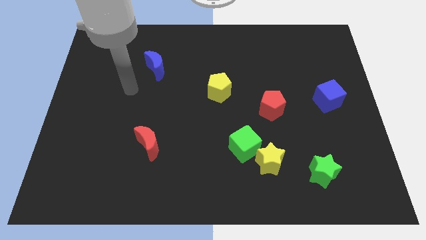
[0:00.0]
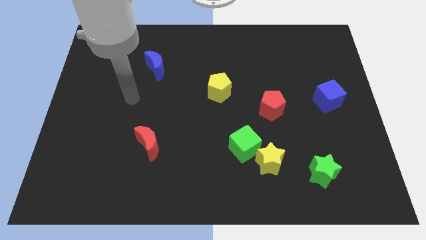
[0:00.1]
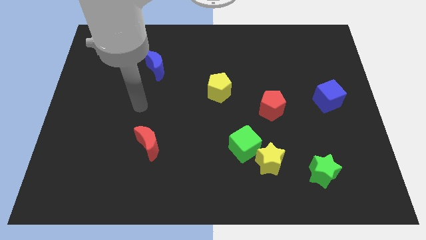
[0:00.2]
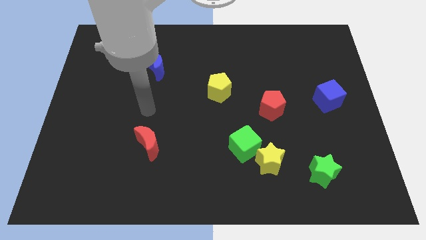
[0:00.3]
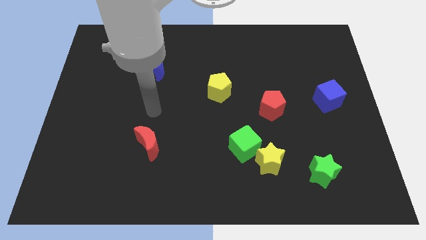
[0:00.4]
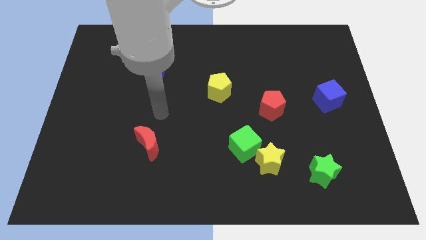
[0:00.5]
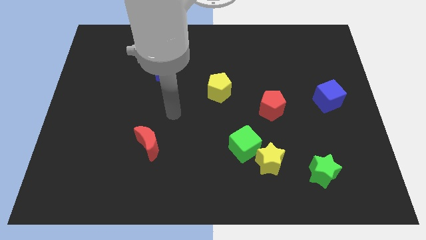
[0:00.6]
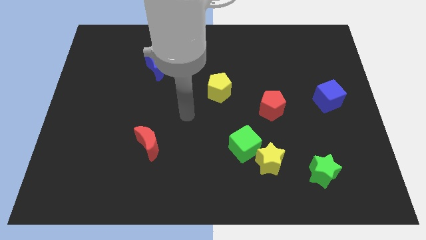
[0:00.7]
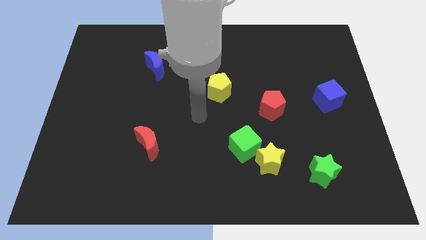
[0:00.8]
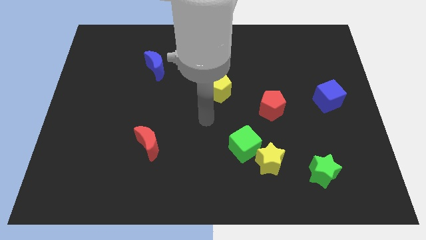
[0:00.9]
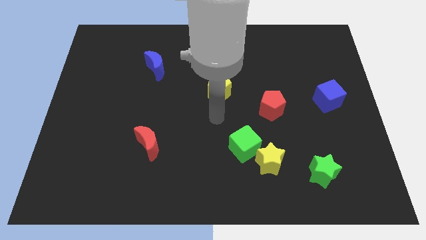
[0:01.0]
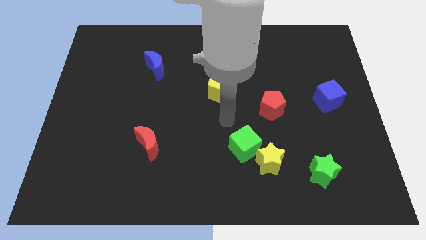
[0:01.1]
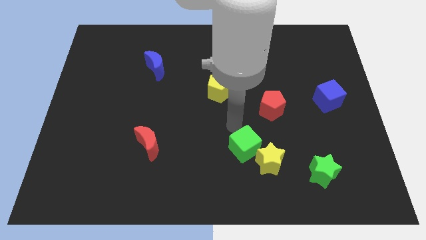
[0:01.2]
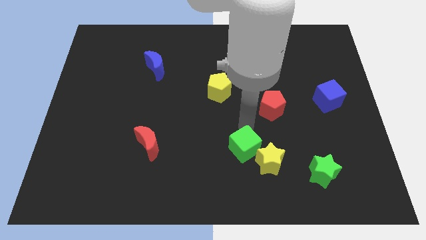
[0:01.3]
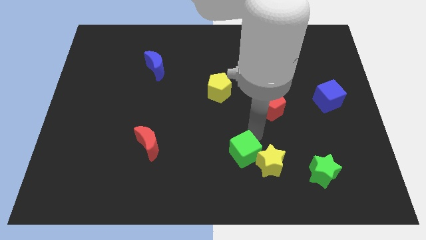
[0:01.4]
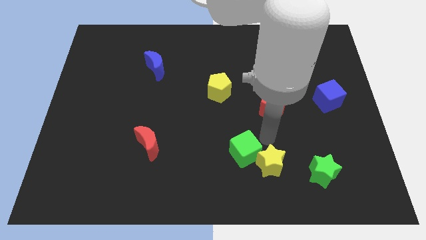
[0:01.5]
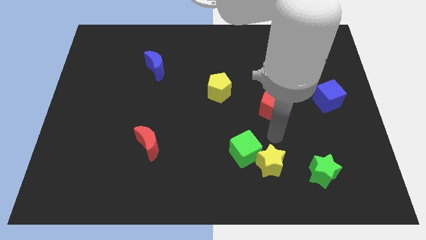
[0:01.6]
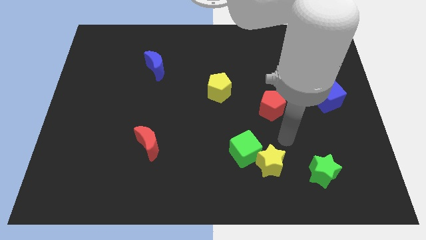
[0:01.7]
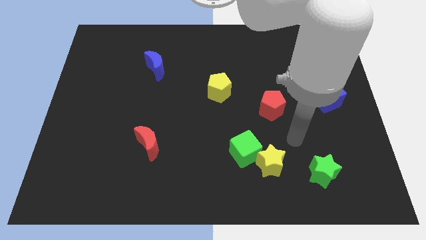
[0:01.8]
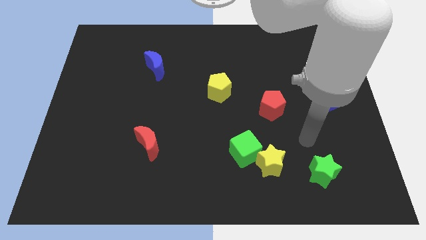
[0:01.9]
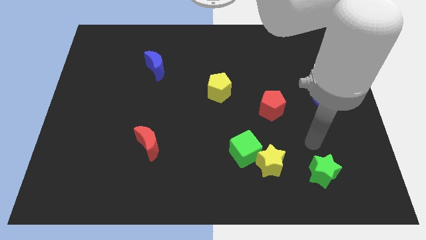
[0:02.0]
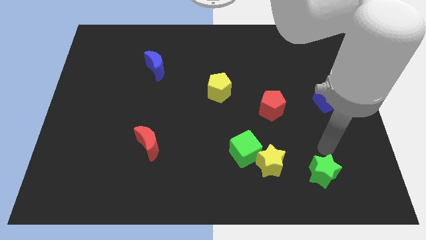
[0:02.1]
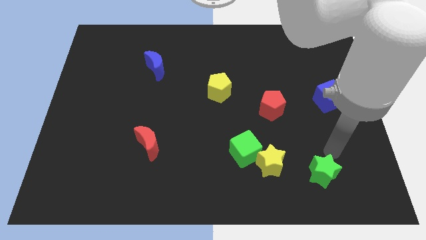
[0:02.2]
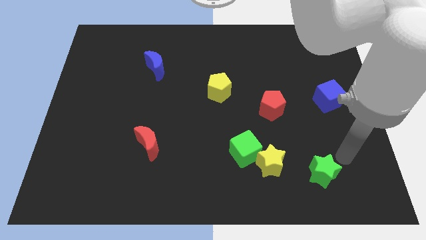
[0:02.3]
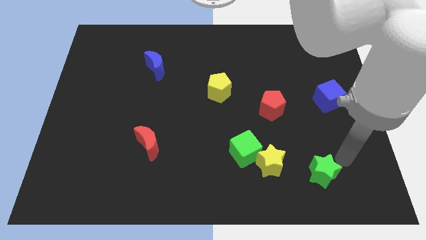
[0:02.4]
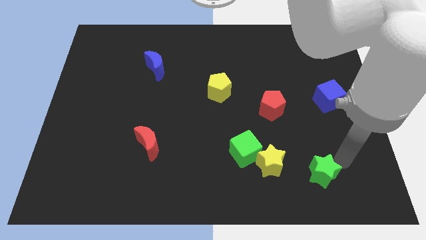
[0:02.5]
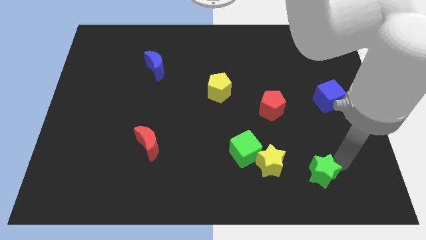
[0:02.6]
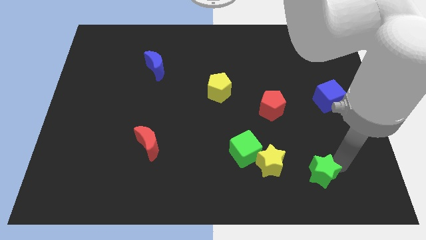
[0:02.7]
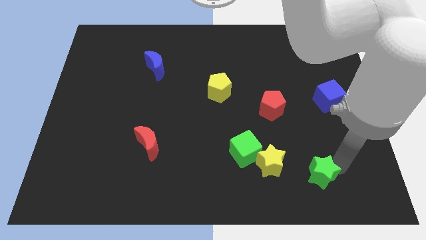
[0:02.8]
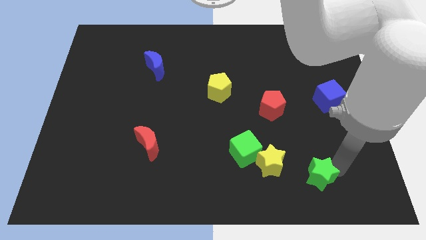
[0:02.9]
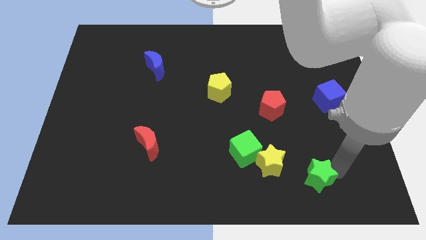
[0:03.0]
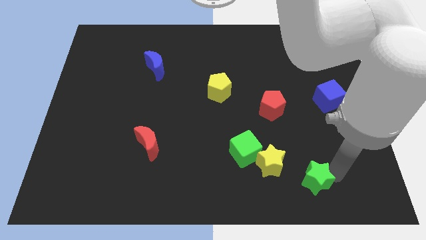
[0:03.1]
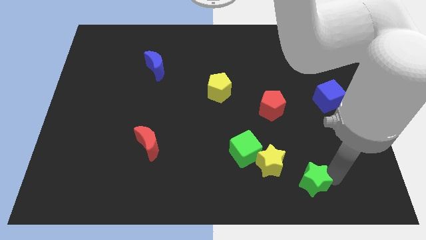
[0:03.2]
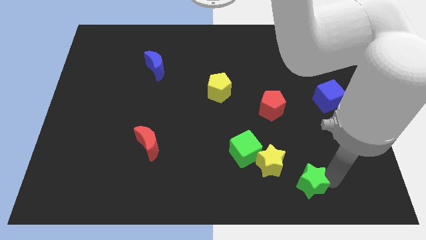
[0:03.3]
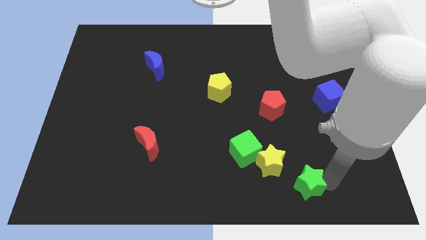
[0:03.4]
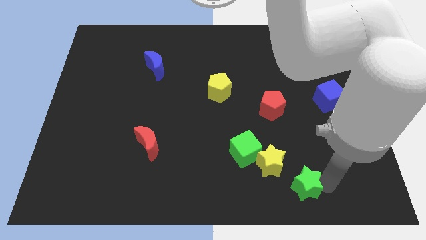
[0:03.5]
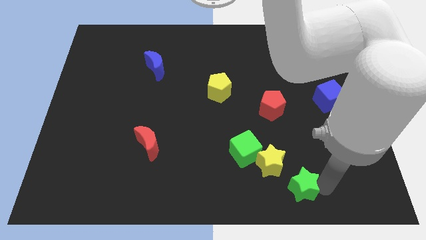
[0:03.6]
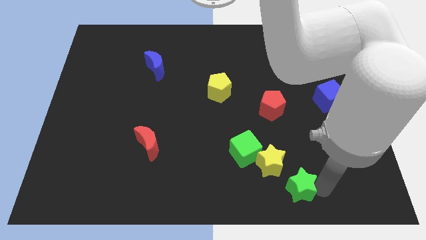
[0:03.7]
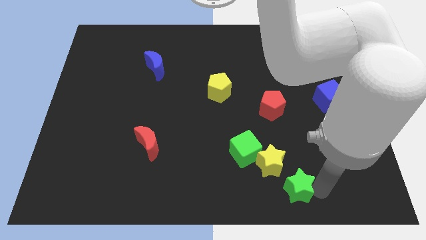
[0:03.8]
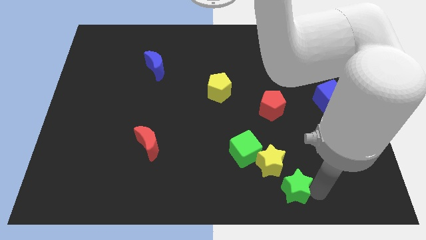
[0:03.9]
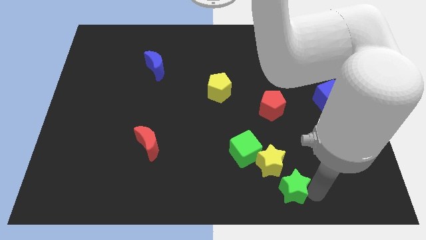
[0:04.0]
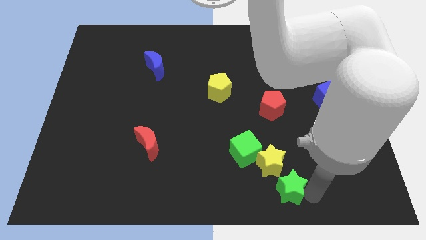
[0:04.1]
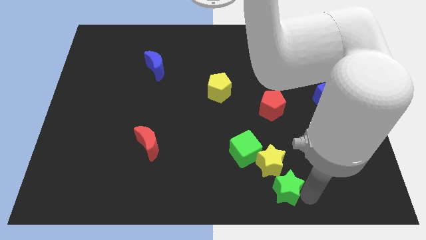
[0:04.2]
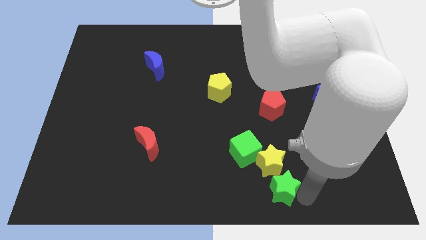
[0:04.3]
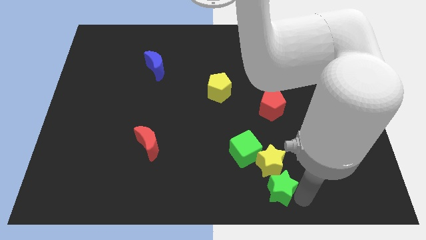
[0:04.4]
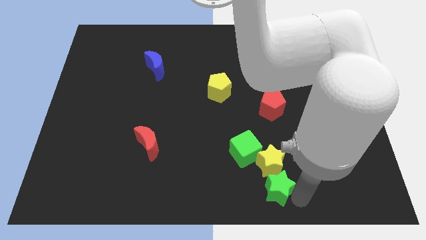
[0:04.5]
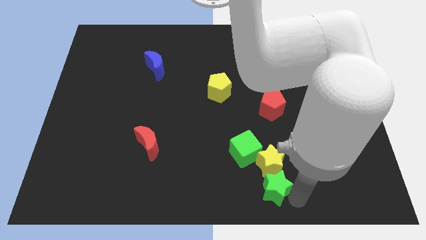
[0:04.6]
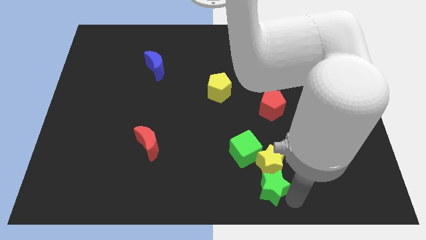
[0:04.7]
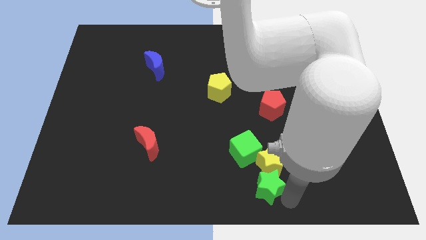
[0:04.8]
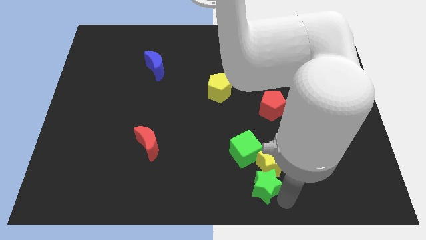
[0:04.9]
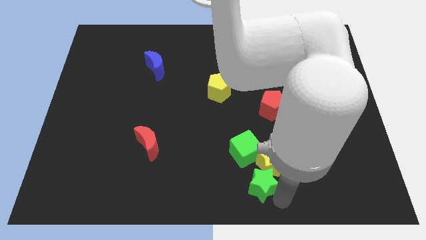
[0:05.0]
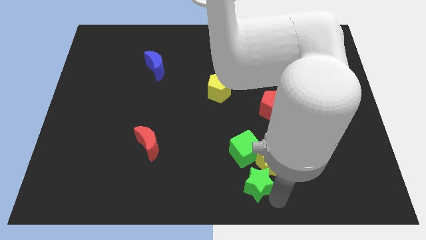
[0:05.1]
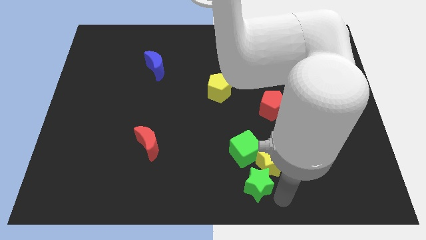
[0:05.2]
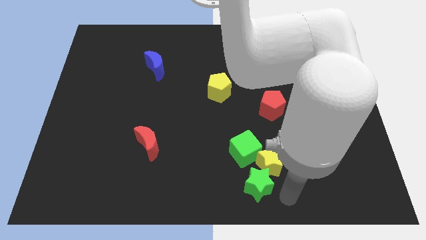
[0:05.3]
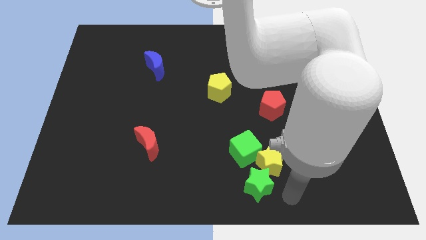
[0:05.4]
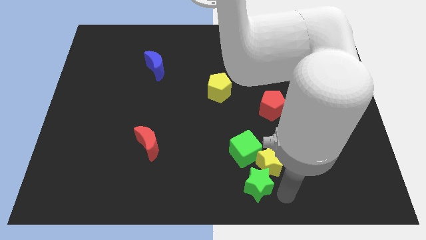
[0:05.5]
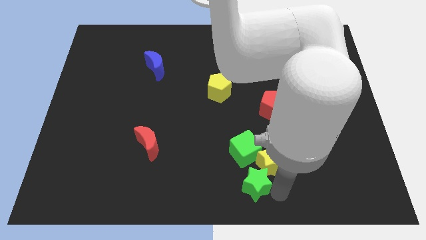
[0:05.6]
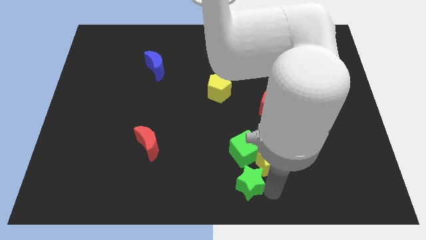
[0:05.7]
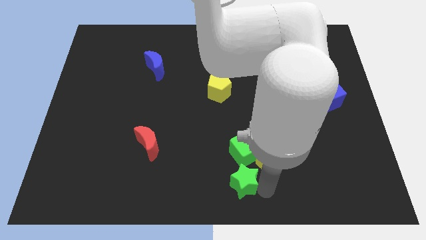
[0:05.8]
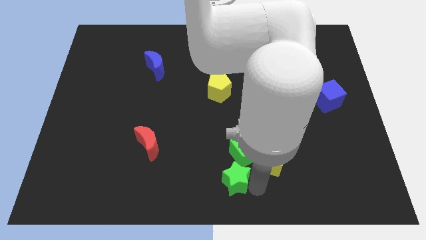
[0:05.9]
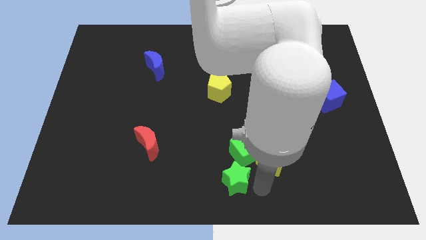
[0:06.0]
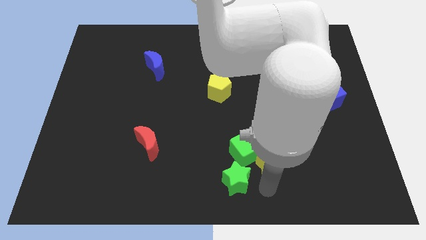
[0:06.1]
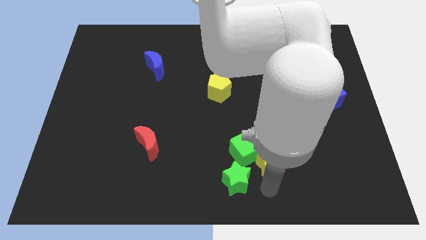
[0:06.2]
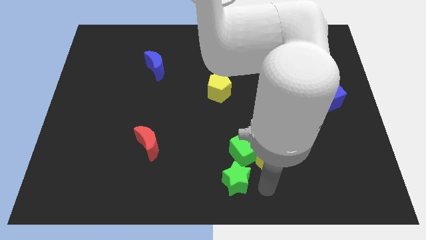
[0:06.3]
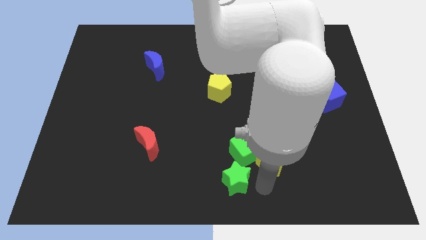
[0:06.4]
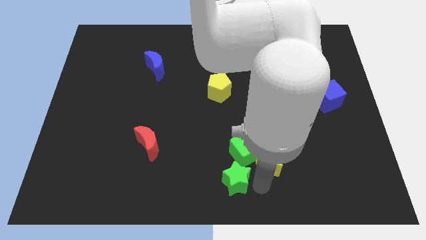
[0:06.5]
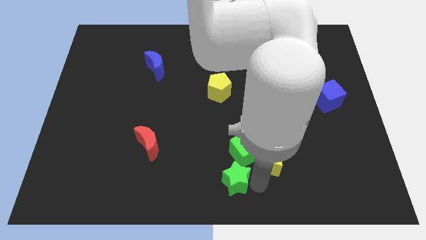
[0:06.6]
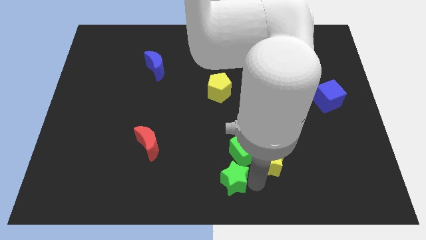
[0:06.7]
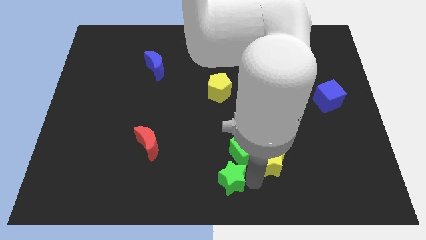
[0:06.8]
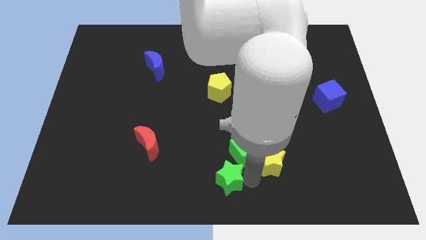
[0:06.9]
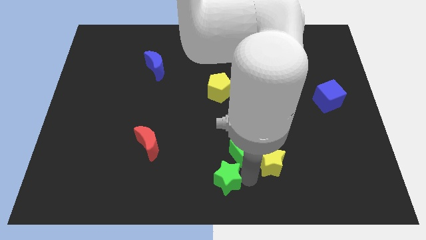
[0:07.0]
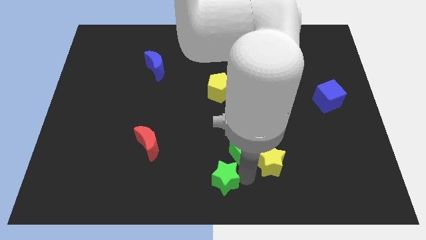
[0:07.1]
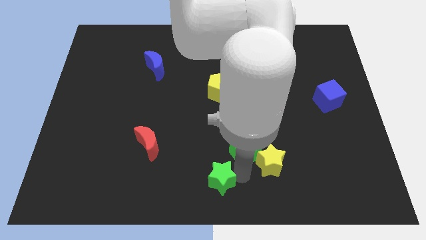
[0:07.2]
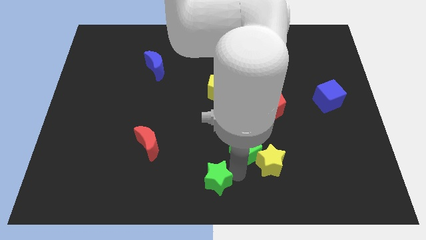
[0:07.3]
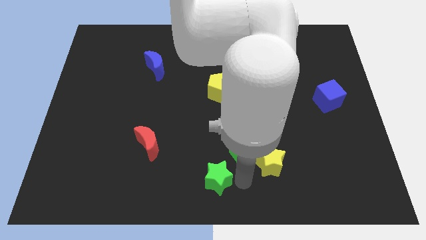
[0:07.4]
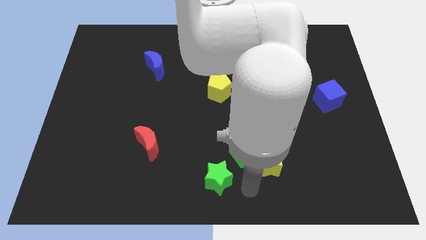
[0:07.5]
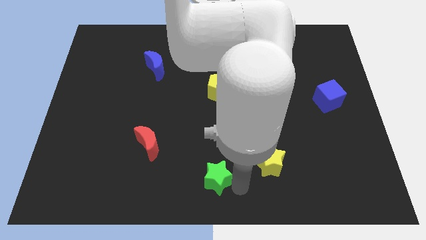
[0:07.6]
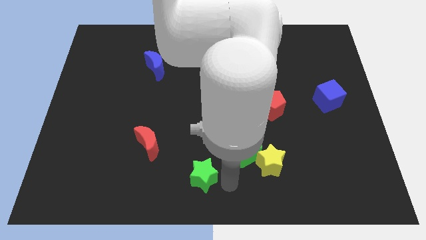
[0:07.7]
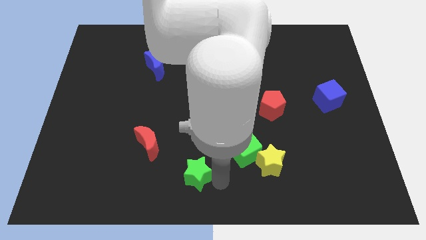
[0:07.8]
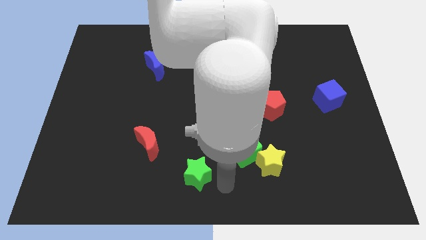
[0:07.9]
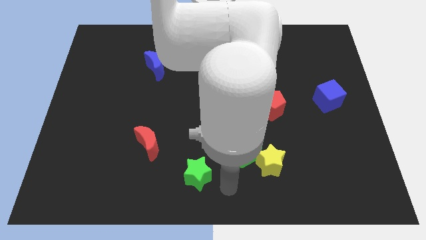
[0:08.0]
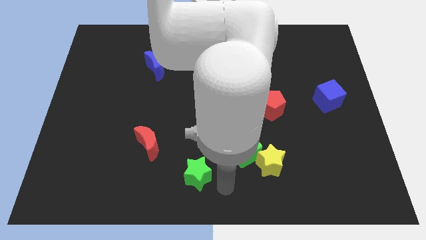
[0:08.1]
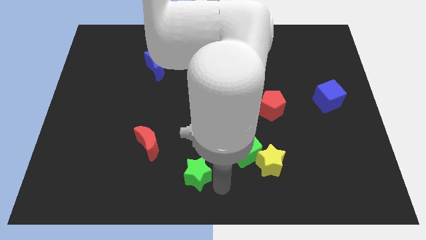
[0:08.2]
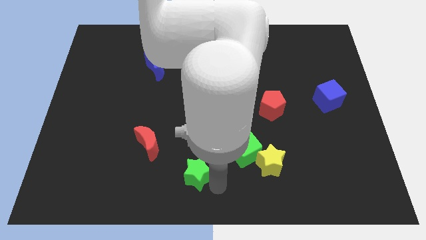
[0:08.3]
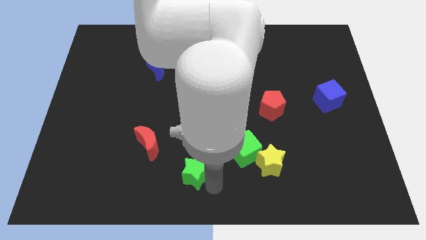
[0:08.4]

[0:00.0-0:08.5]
slide the green star to the bottom right side of the red moon
